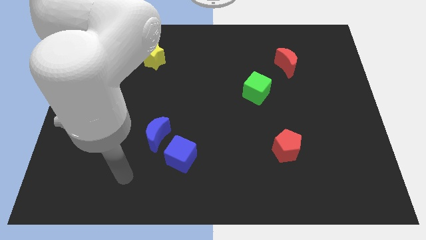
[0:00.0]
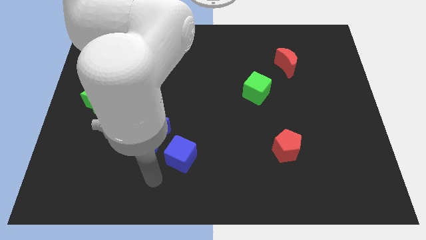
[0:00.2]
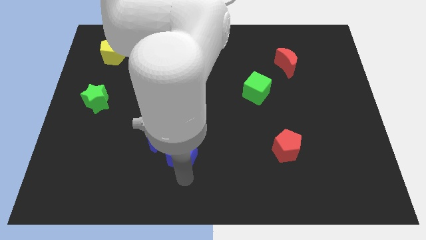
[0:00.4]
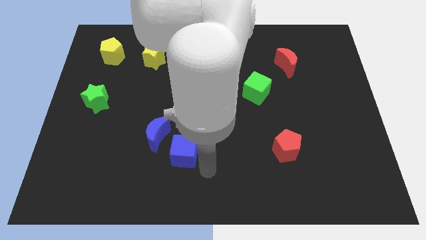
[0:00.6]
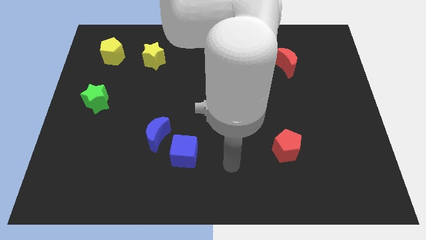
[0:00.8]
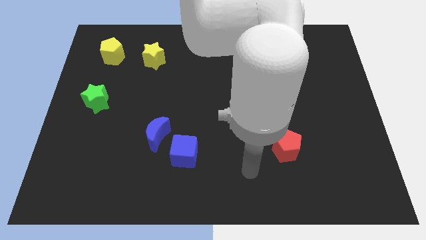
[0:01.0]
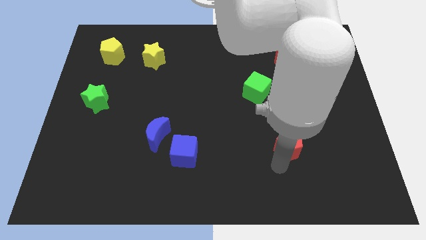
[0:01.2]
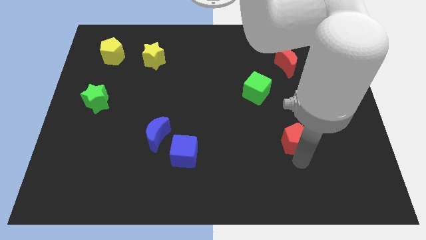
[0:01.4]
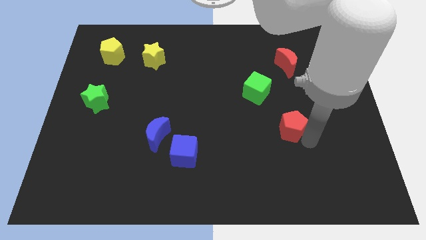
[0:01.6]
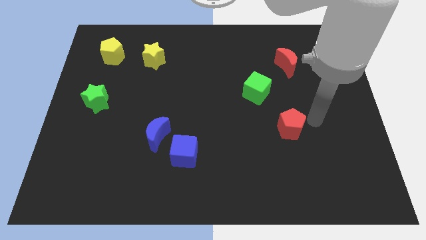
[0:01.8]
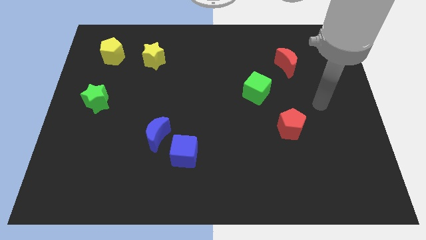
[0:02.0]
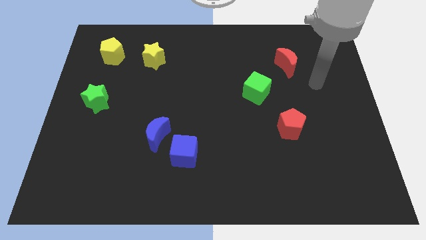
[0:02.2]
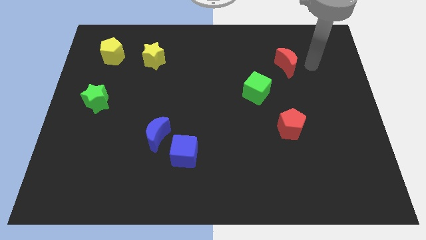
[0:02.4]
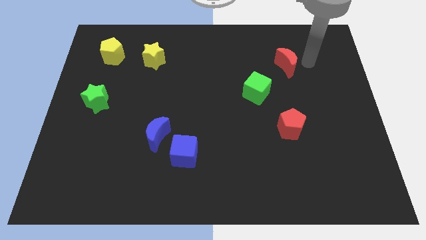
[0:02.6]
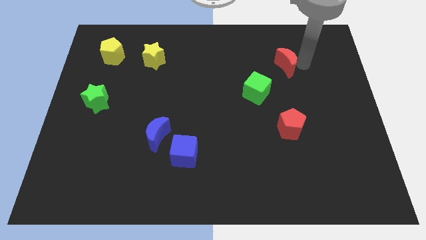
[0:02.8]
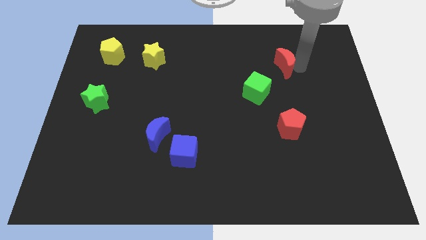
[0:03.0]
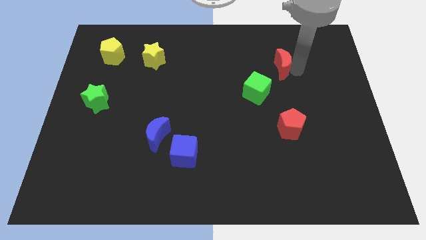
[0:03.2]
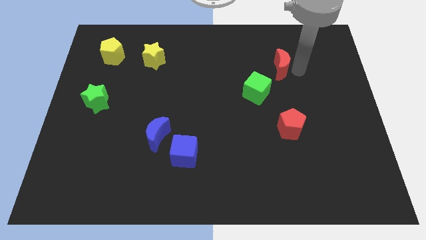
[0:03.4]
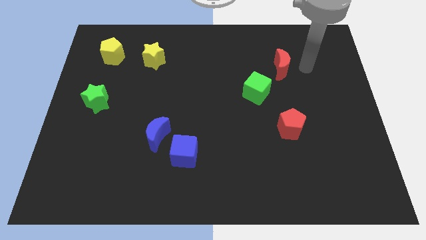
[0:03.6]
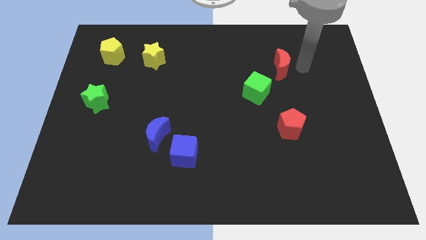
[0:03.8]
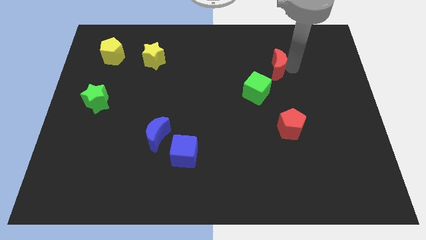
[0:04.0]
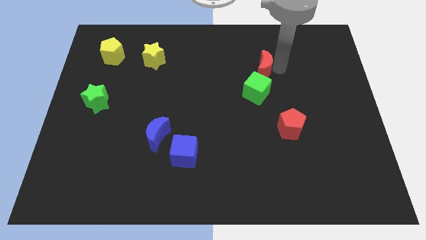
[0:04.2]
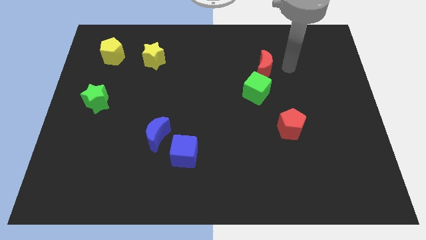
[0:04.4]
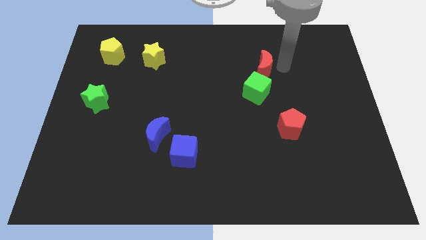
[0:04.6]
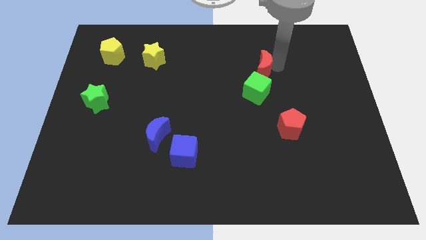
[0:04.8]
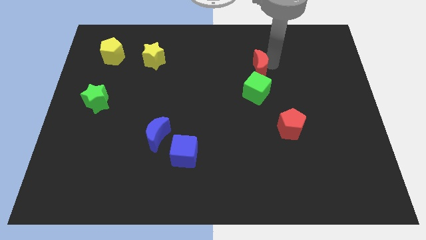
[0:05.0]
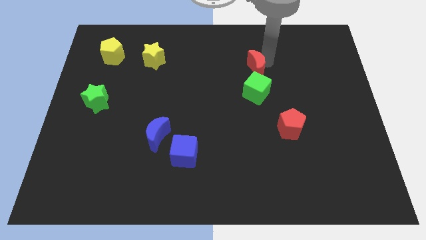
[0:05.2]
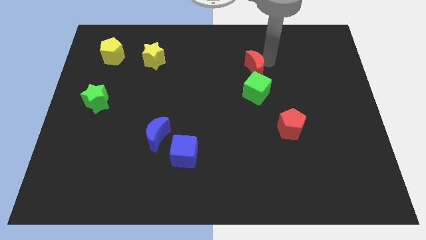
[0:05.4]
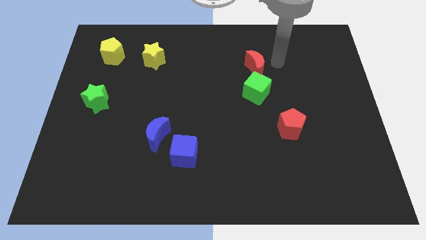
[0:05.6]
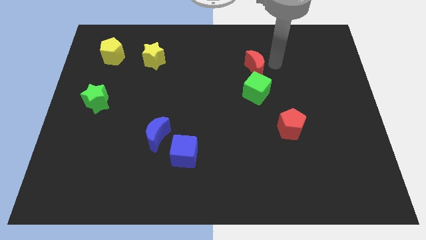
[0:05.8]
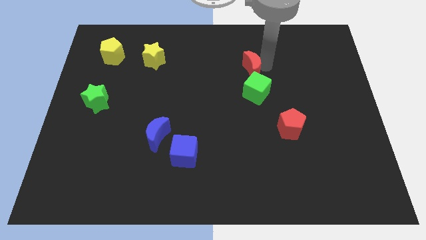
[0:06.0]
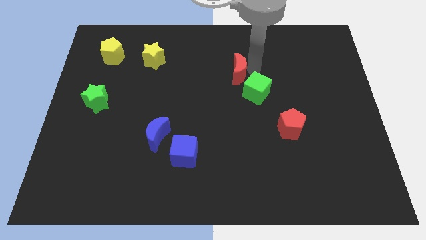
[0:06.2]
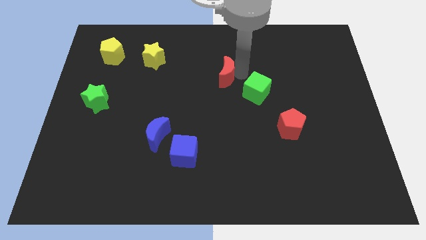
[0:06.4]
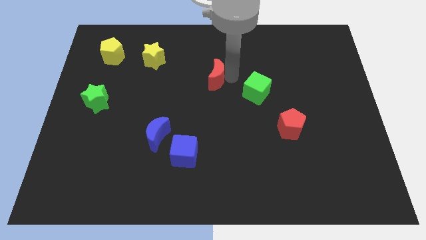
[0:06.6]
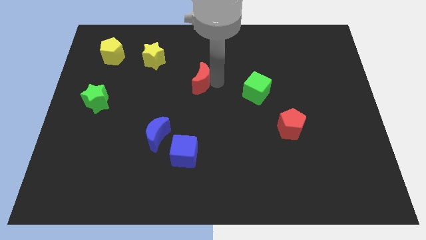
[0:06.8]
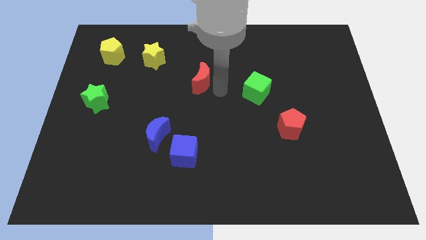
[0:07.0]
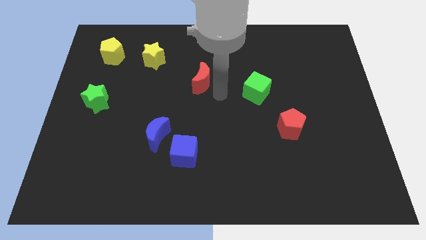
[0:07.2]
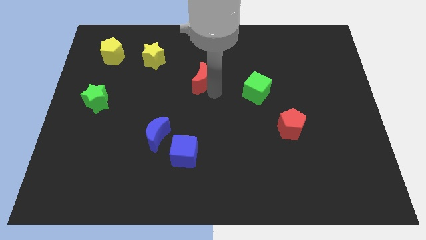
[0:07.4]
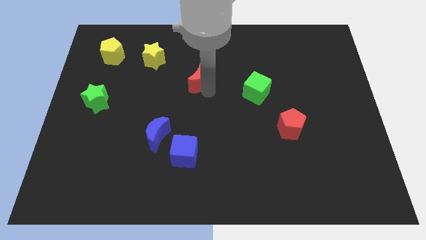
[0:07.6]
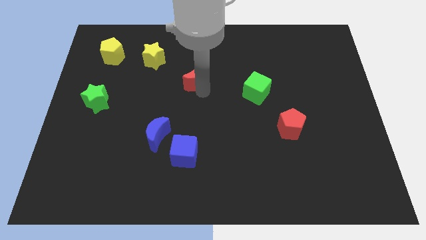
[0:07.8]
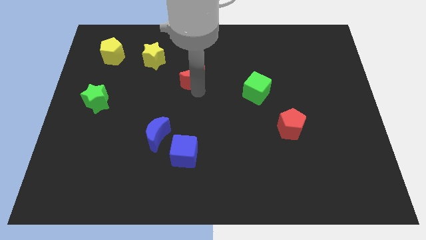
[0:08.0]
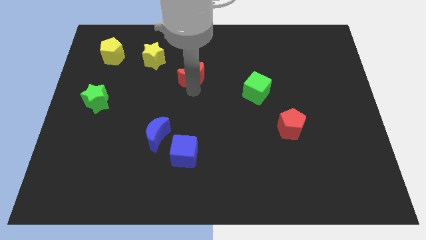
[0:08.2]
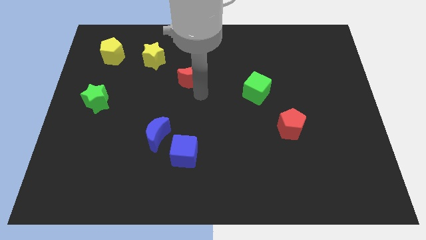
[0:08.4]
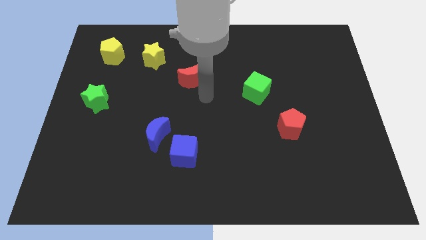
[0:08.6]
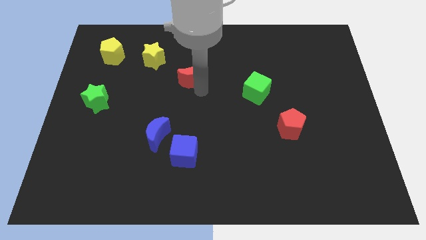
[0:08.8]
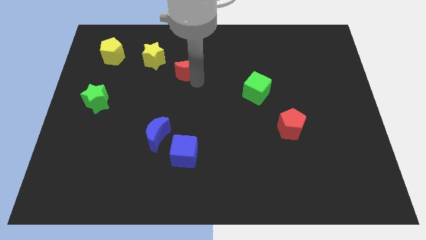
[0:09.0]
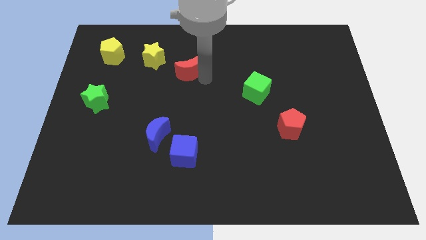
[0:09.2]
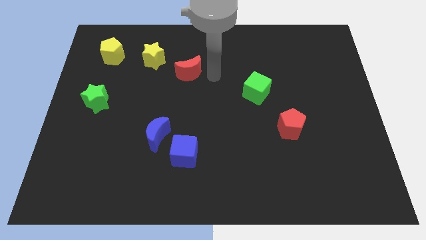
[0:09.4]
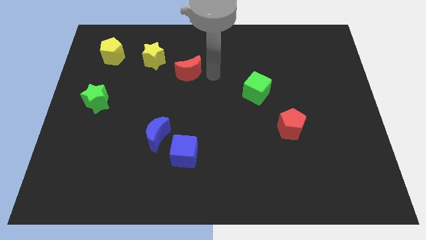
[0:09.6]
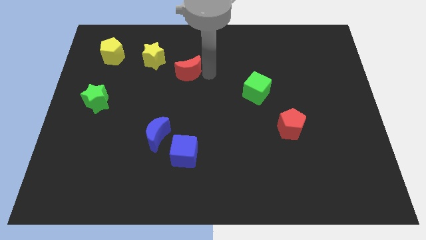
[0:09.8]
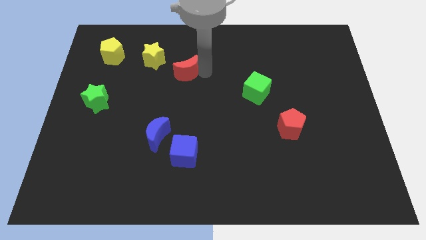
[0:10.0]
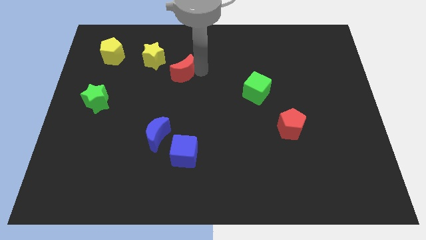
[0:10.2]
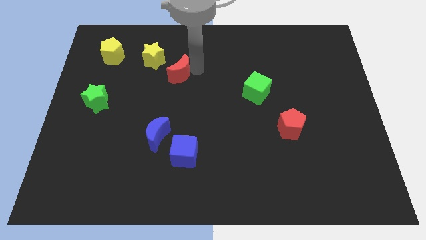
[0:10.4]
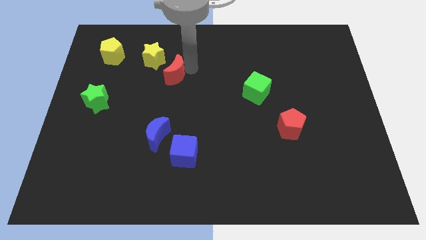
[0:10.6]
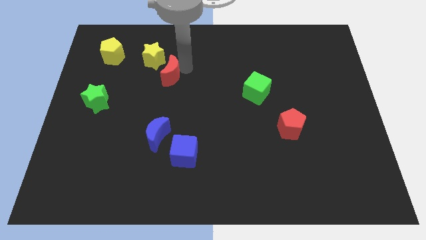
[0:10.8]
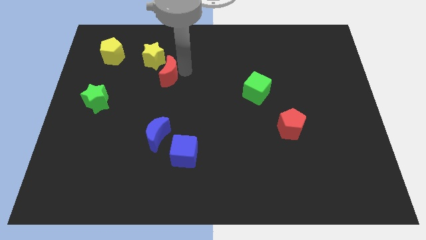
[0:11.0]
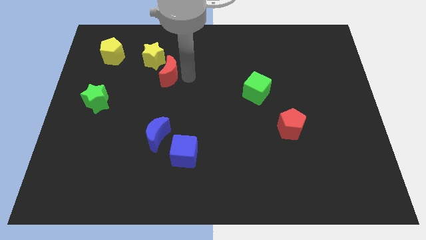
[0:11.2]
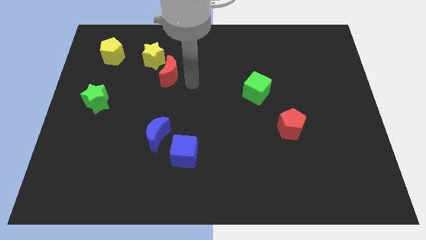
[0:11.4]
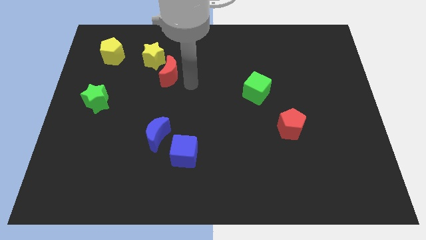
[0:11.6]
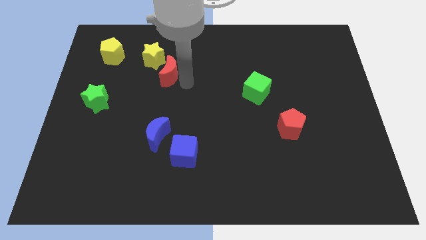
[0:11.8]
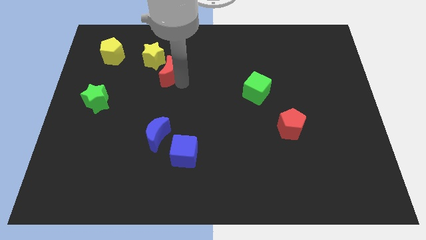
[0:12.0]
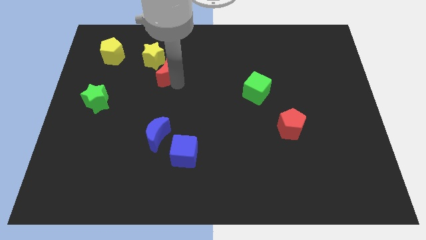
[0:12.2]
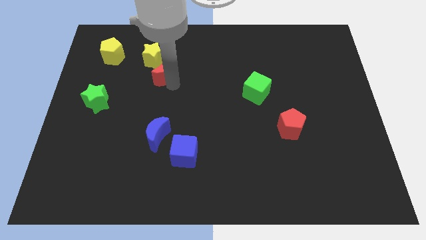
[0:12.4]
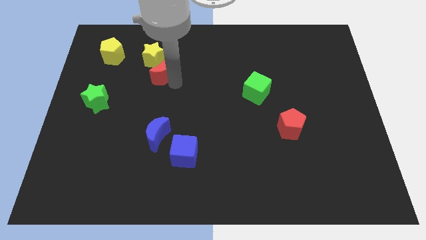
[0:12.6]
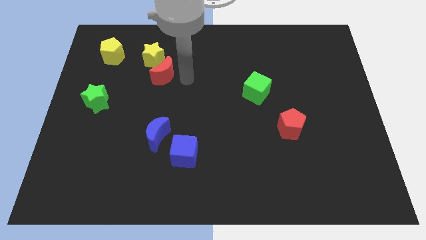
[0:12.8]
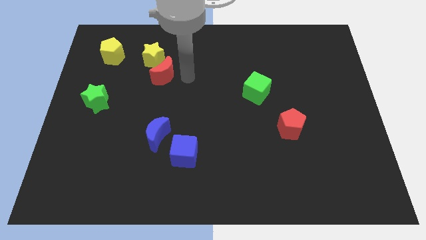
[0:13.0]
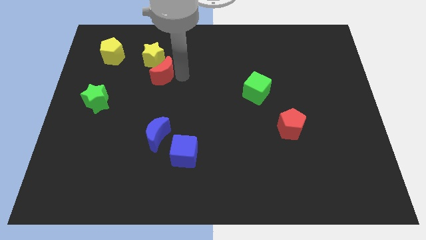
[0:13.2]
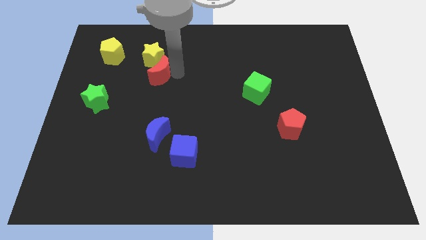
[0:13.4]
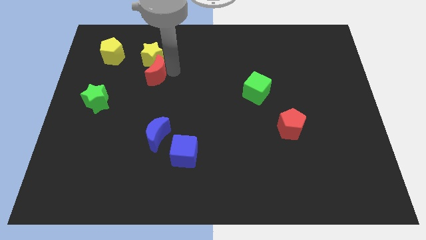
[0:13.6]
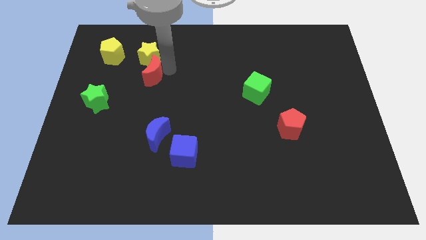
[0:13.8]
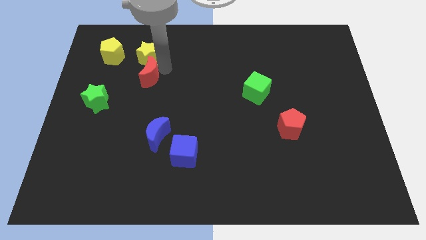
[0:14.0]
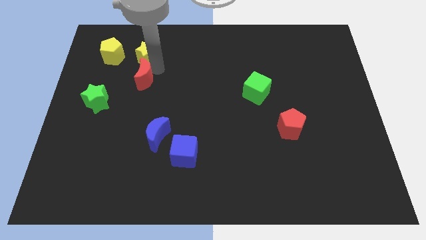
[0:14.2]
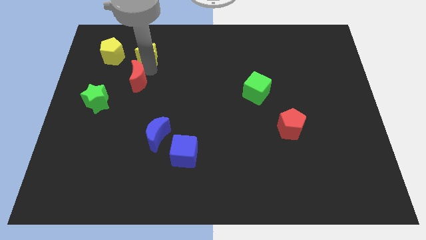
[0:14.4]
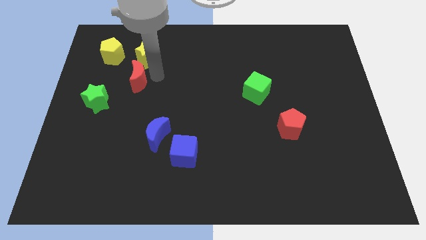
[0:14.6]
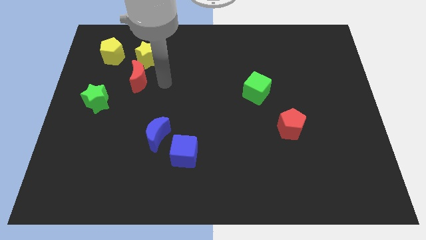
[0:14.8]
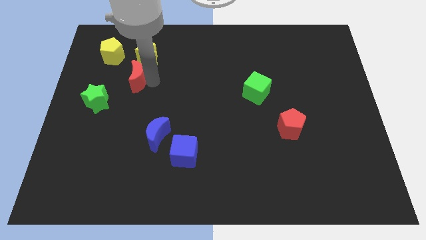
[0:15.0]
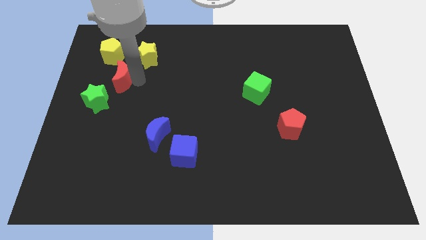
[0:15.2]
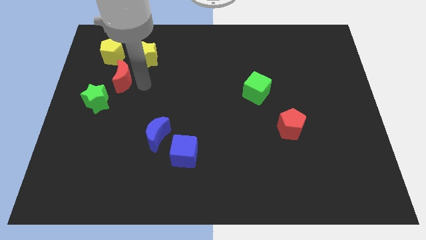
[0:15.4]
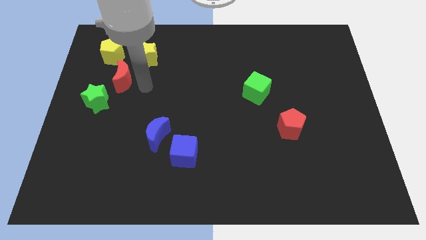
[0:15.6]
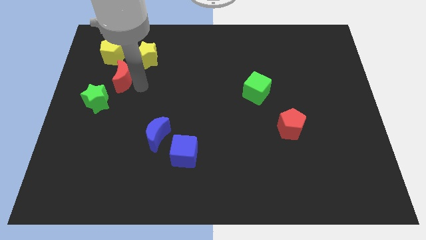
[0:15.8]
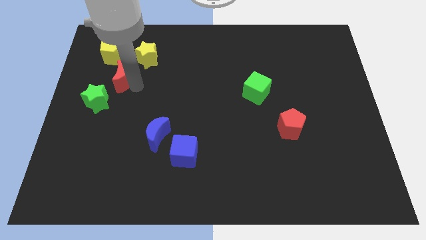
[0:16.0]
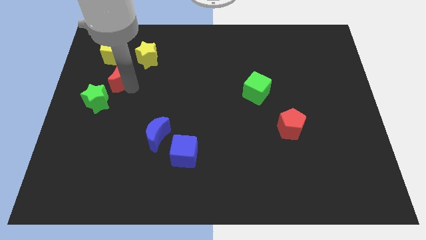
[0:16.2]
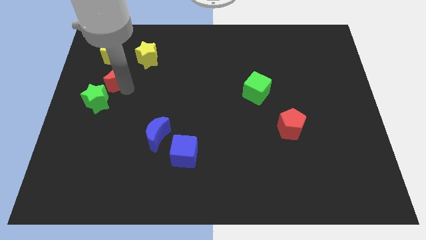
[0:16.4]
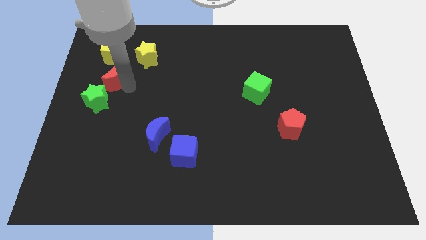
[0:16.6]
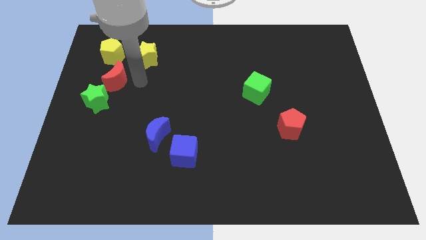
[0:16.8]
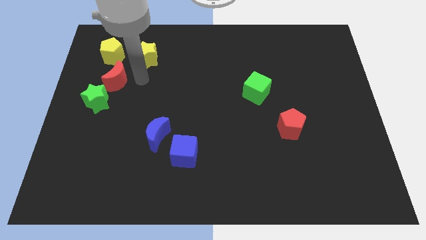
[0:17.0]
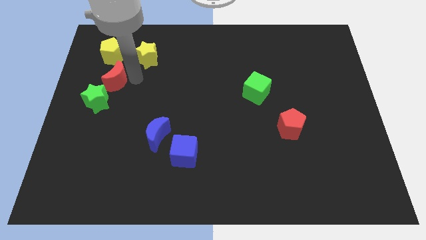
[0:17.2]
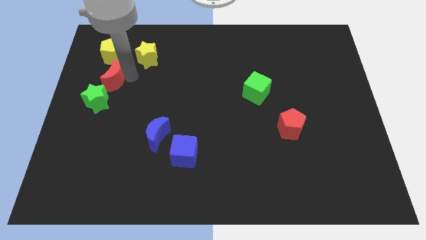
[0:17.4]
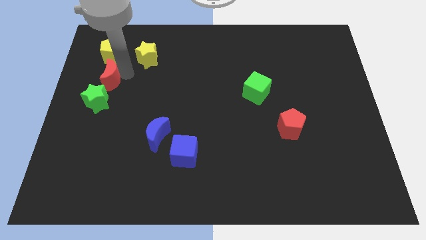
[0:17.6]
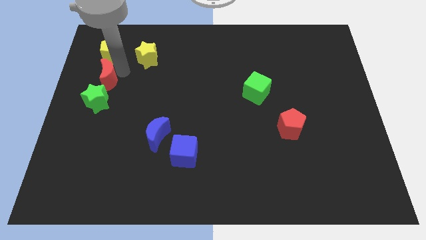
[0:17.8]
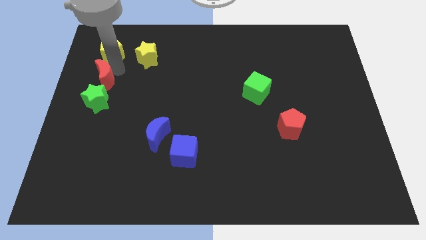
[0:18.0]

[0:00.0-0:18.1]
slide the red moon to the left side of the board
